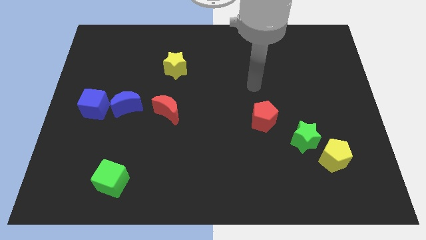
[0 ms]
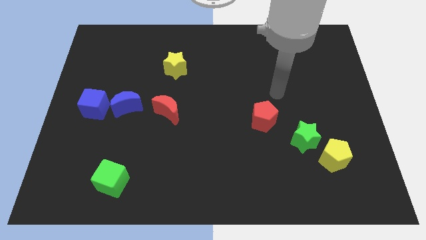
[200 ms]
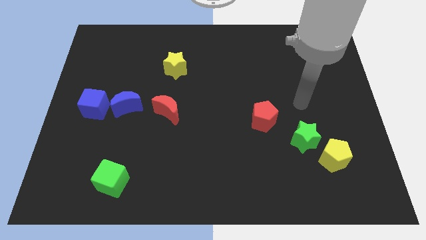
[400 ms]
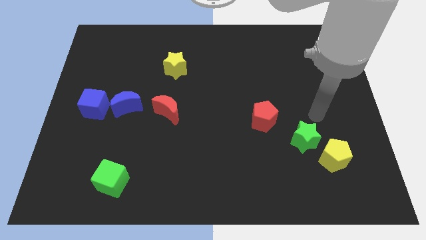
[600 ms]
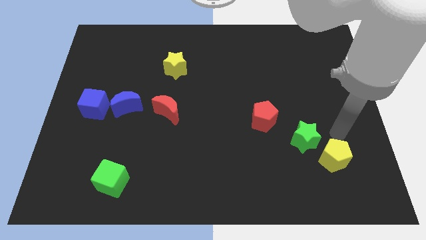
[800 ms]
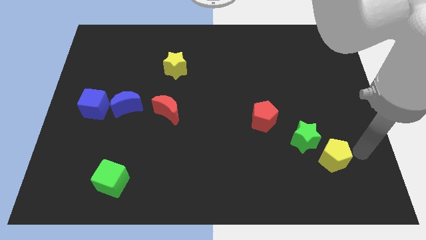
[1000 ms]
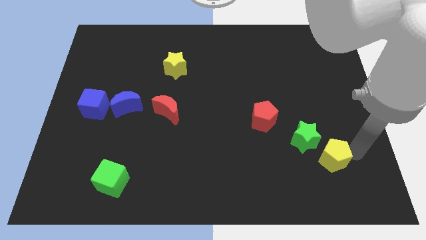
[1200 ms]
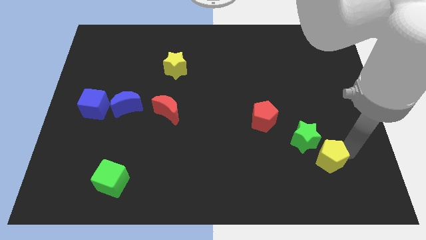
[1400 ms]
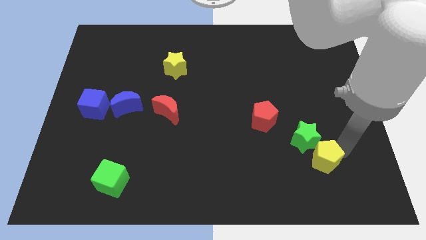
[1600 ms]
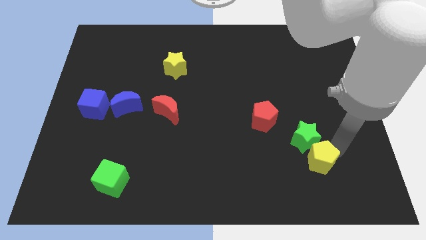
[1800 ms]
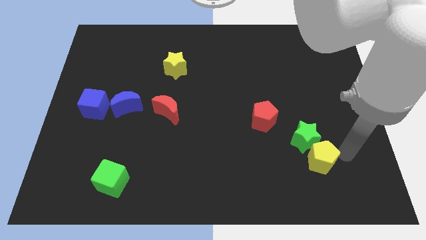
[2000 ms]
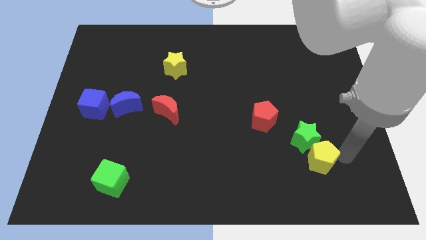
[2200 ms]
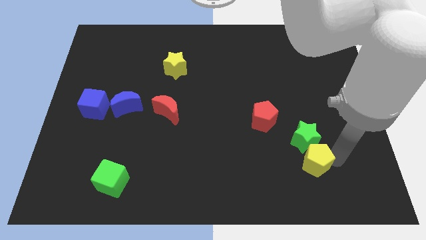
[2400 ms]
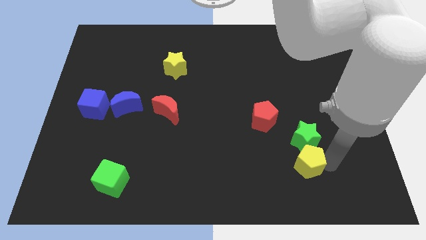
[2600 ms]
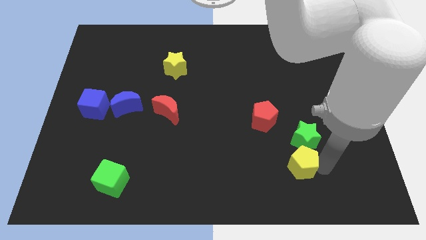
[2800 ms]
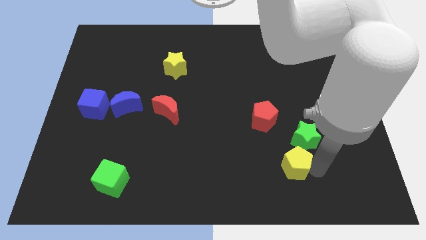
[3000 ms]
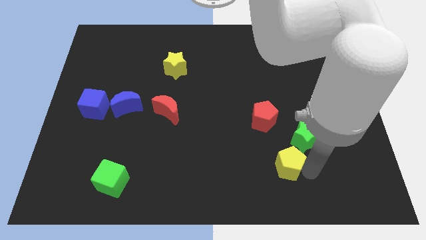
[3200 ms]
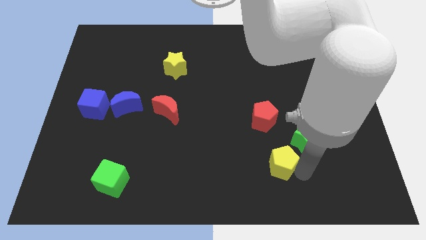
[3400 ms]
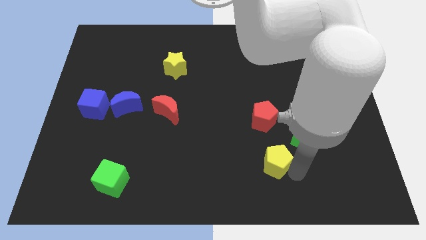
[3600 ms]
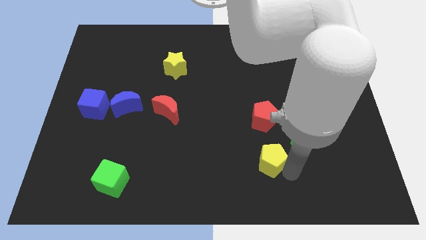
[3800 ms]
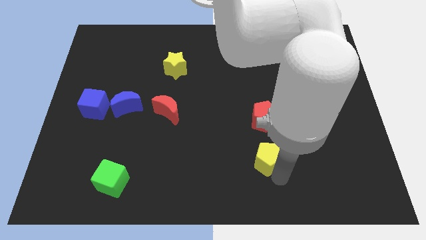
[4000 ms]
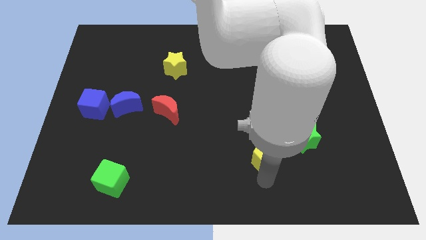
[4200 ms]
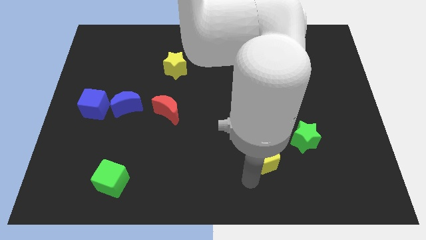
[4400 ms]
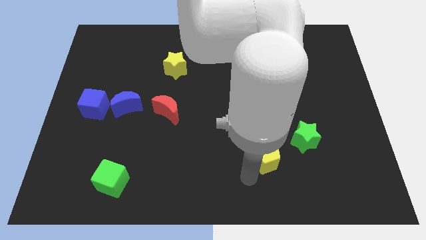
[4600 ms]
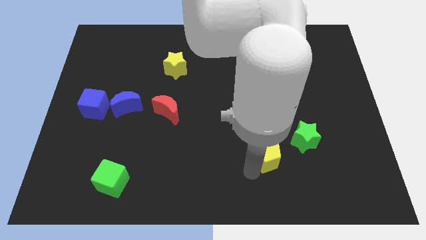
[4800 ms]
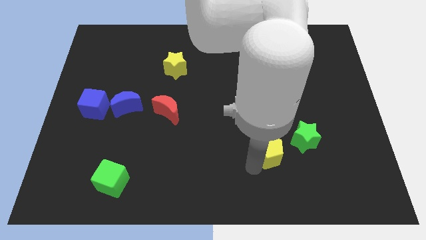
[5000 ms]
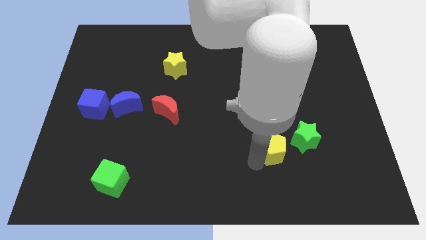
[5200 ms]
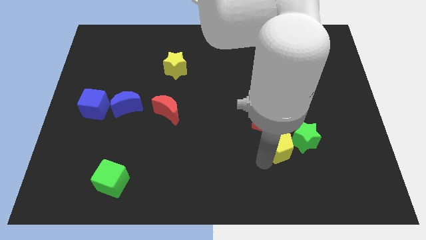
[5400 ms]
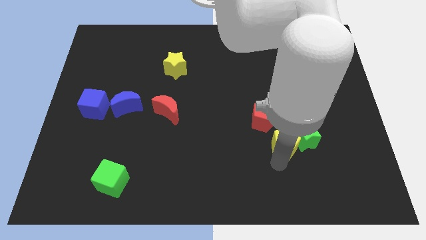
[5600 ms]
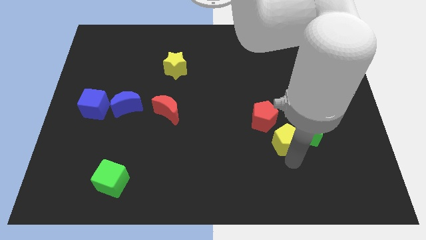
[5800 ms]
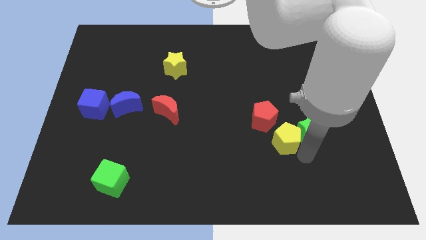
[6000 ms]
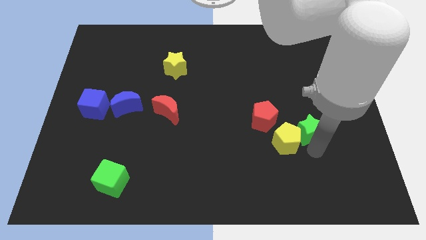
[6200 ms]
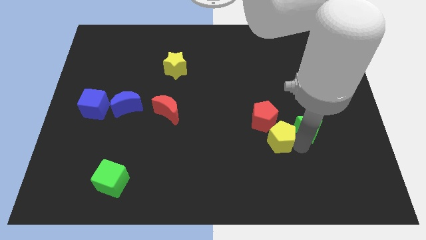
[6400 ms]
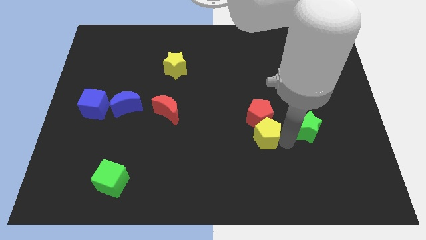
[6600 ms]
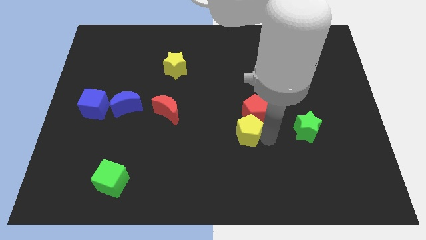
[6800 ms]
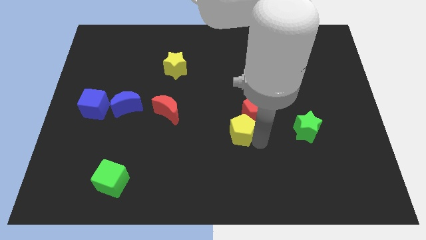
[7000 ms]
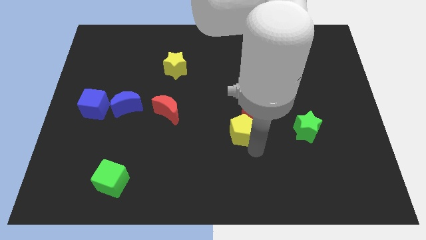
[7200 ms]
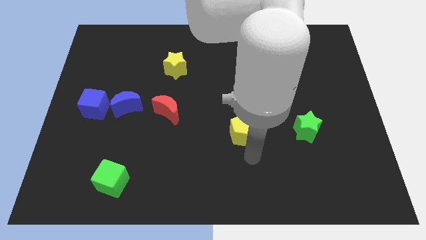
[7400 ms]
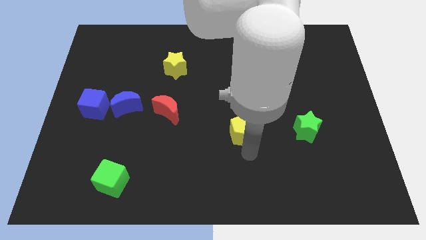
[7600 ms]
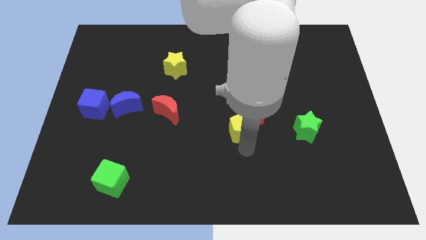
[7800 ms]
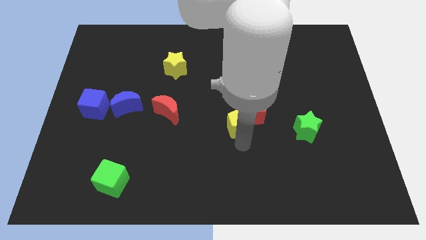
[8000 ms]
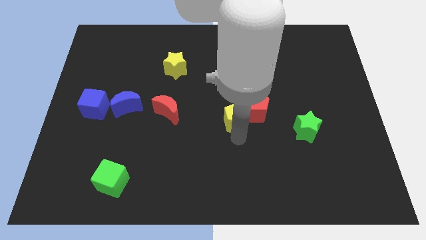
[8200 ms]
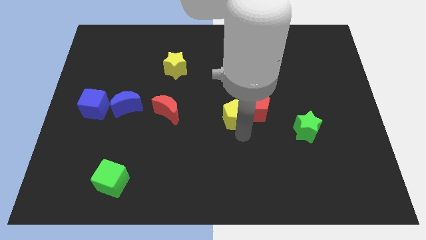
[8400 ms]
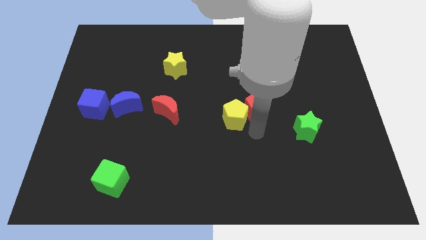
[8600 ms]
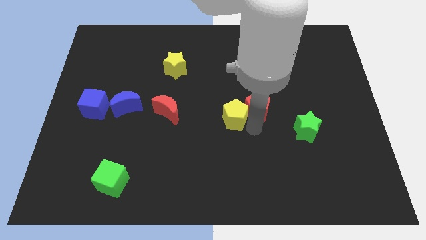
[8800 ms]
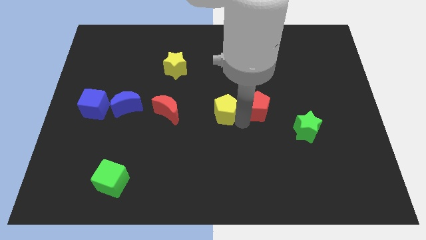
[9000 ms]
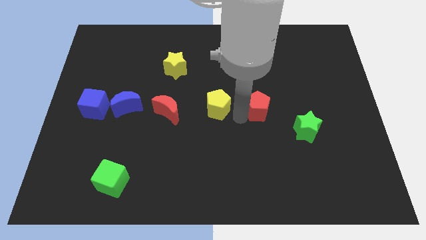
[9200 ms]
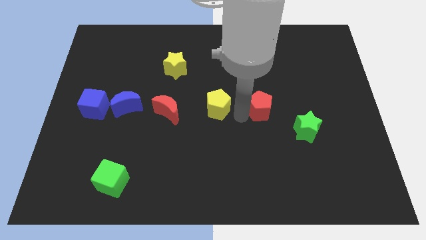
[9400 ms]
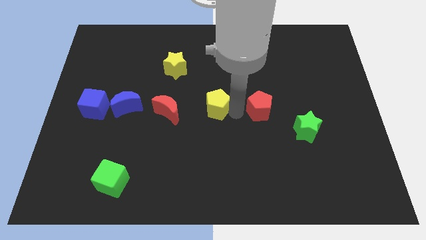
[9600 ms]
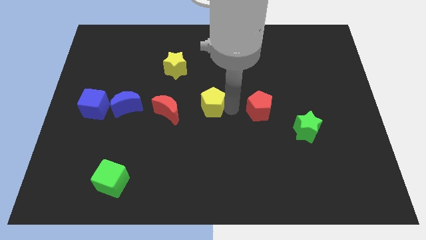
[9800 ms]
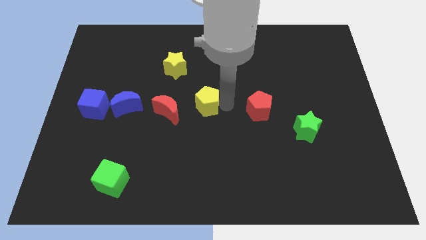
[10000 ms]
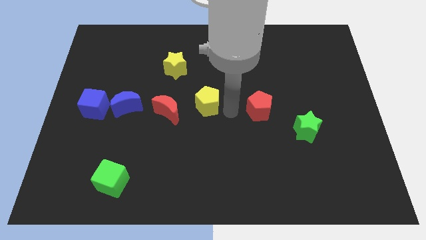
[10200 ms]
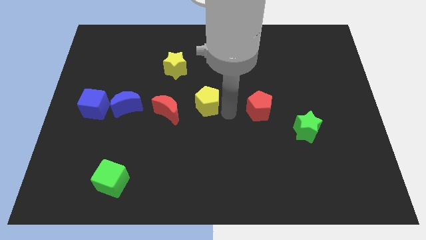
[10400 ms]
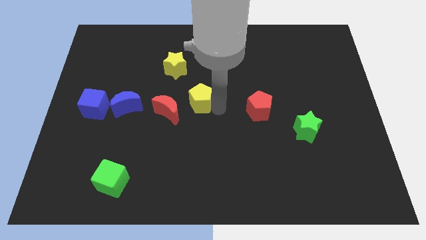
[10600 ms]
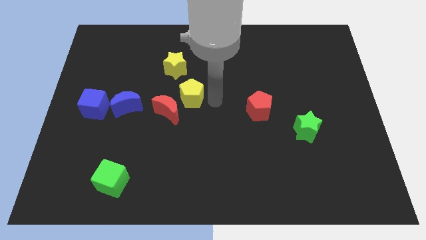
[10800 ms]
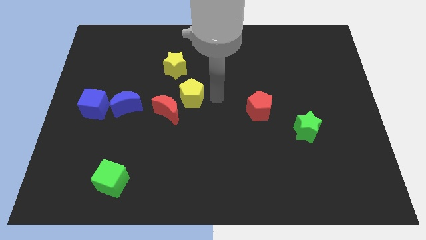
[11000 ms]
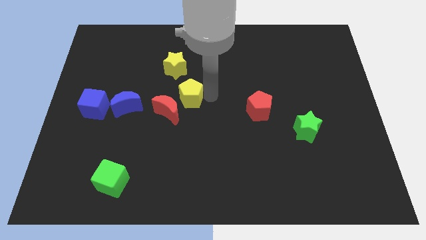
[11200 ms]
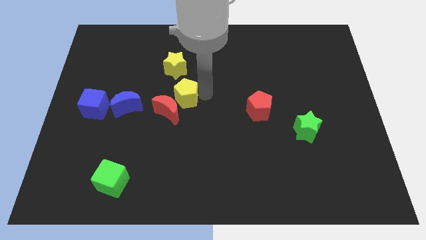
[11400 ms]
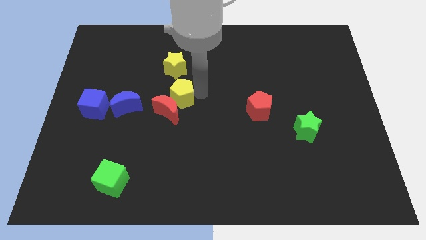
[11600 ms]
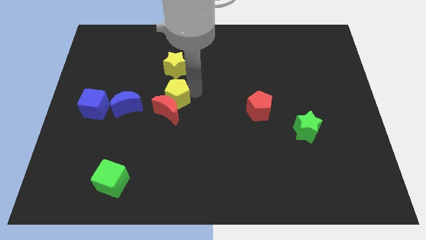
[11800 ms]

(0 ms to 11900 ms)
move the yellow pentagon to the top left of the red moon

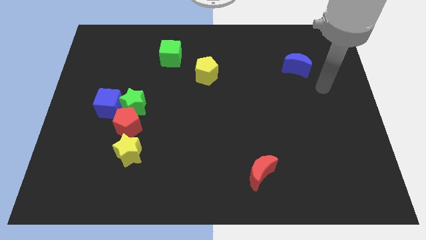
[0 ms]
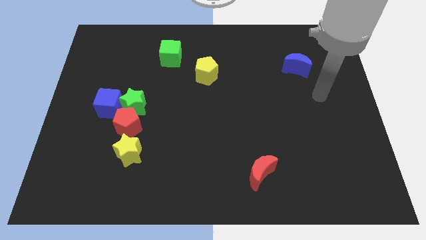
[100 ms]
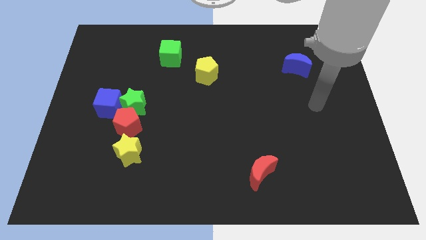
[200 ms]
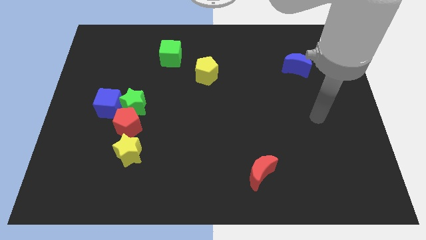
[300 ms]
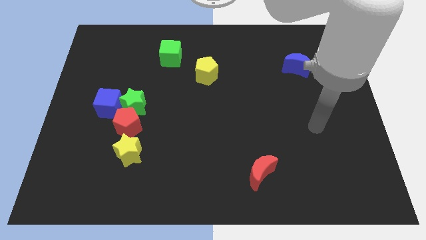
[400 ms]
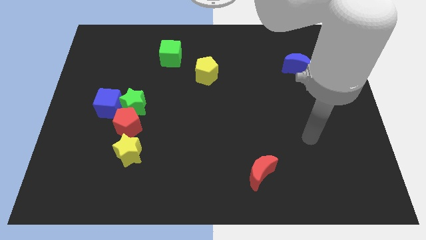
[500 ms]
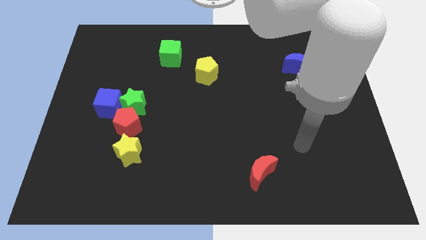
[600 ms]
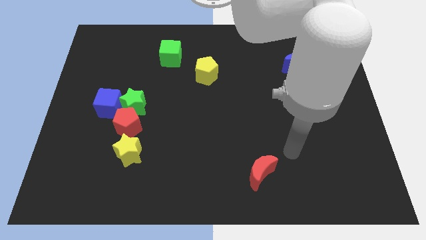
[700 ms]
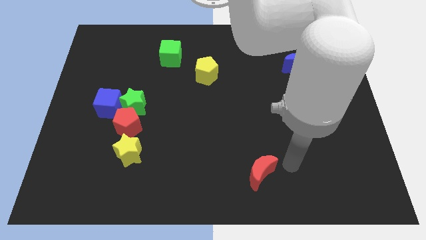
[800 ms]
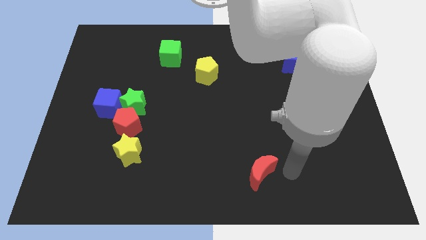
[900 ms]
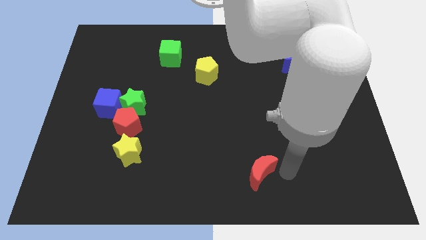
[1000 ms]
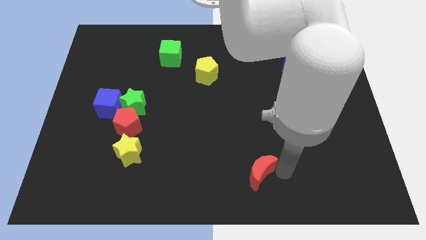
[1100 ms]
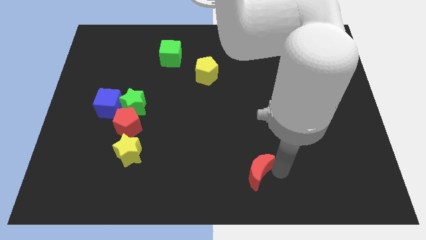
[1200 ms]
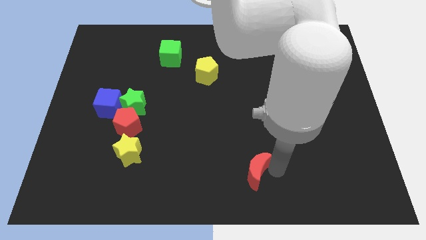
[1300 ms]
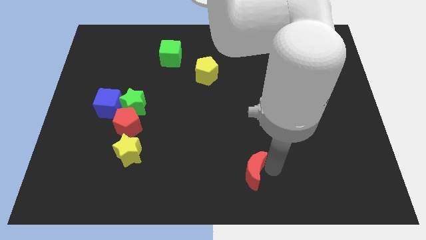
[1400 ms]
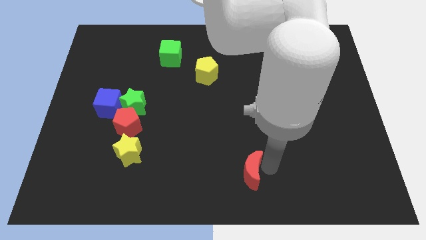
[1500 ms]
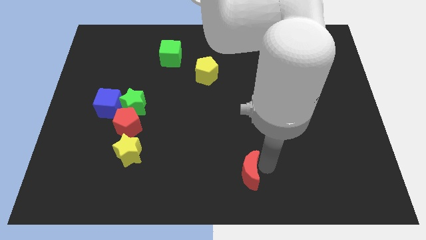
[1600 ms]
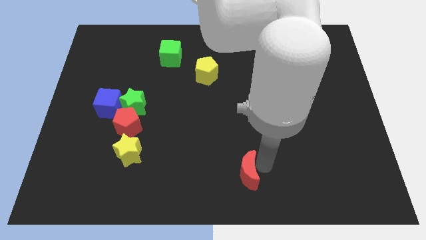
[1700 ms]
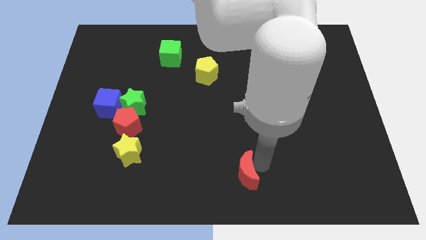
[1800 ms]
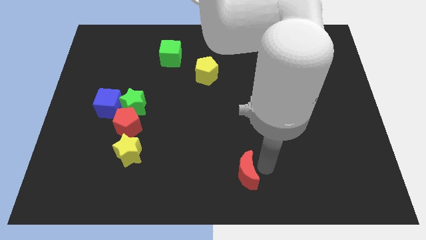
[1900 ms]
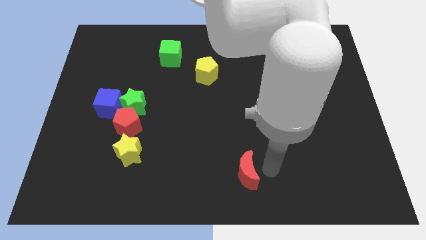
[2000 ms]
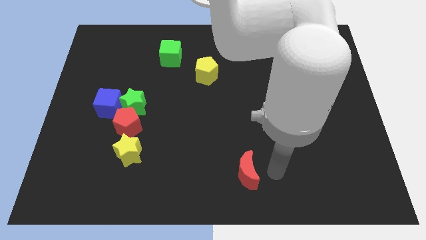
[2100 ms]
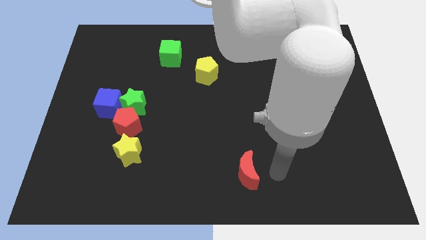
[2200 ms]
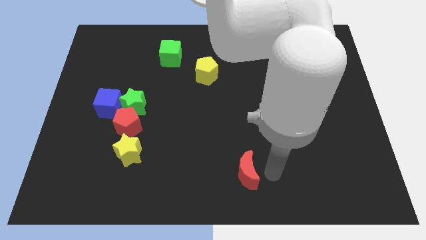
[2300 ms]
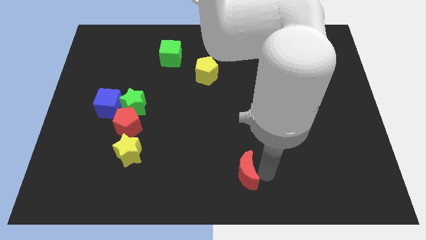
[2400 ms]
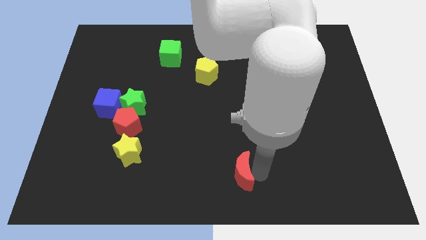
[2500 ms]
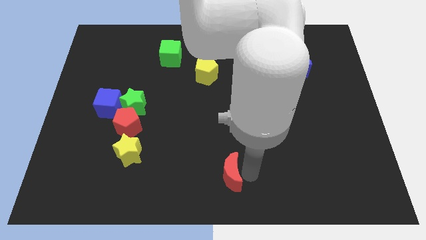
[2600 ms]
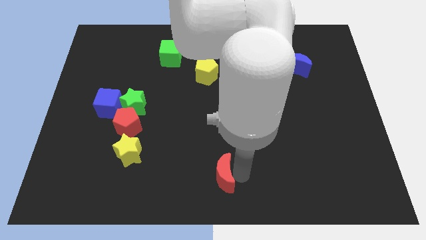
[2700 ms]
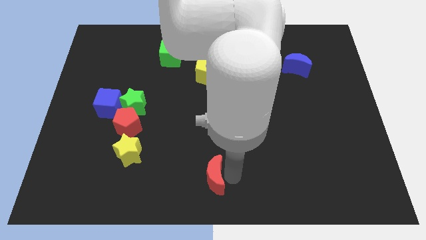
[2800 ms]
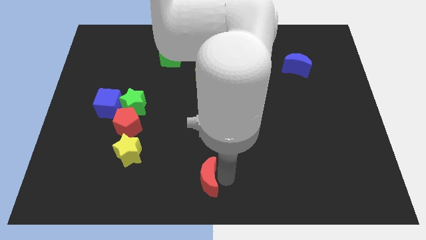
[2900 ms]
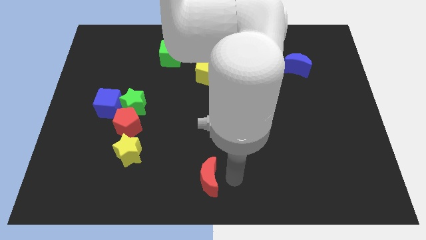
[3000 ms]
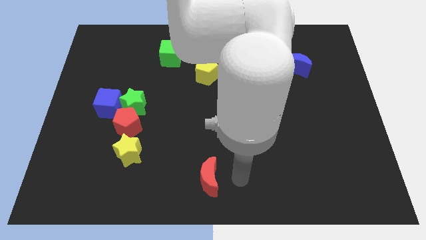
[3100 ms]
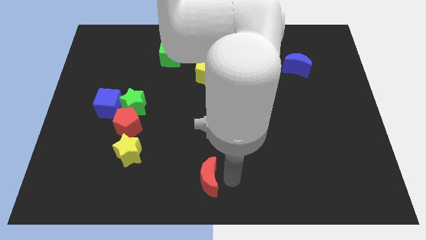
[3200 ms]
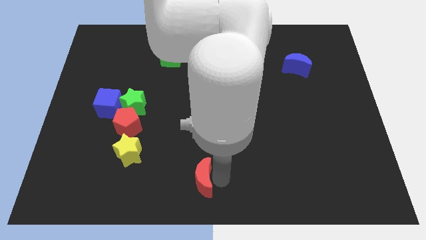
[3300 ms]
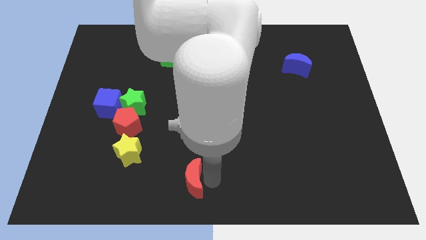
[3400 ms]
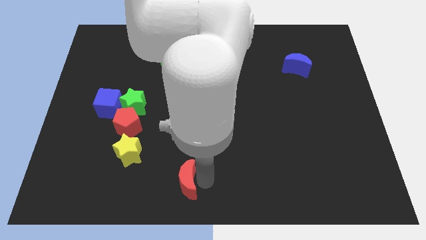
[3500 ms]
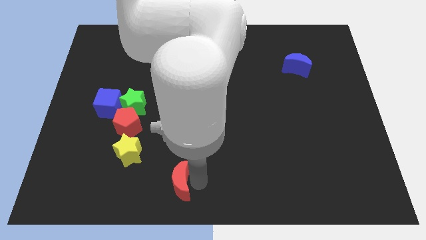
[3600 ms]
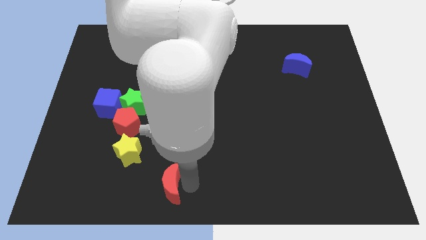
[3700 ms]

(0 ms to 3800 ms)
slide the red moon to the bottom right of the yellow star
